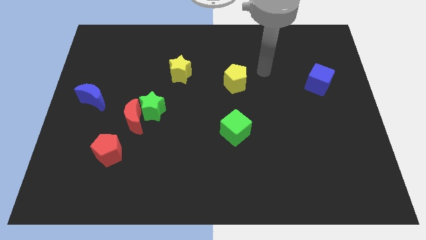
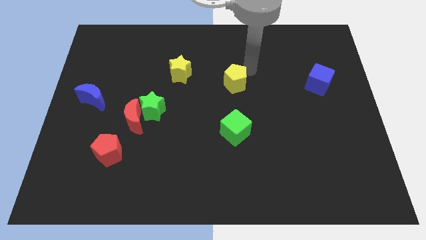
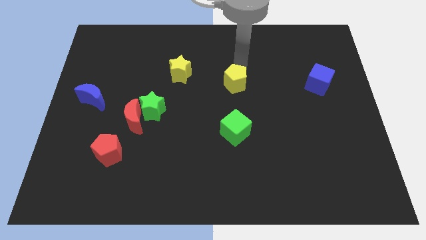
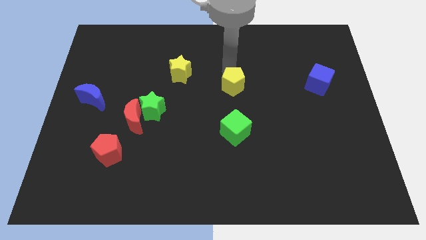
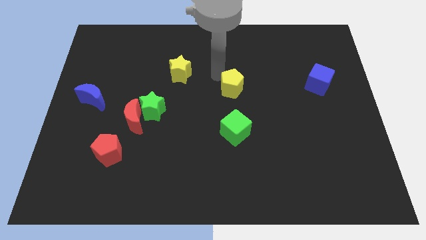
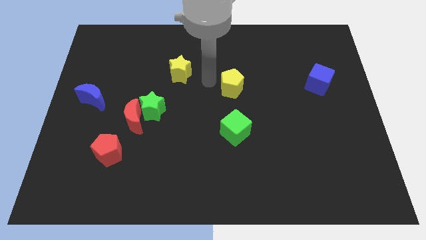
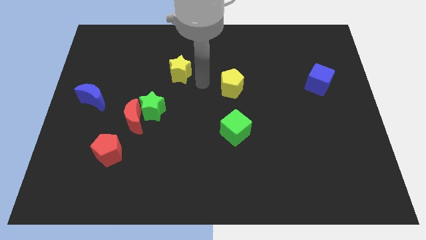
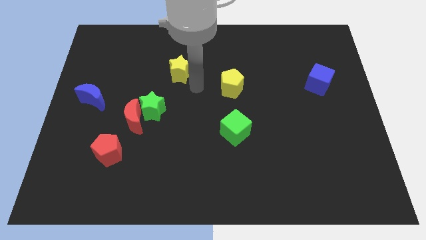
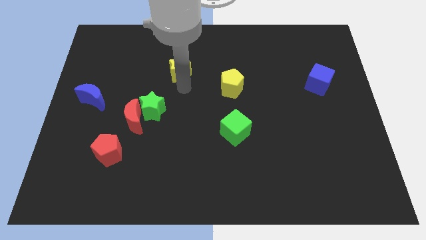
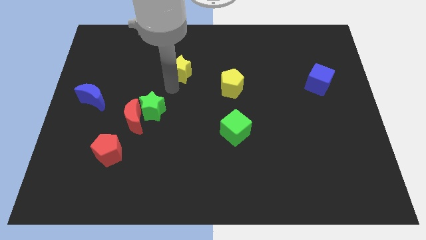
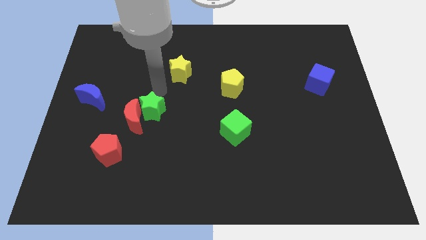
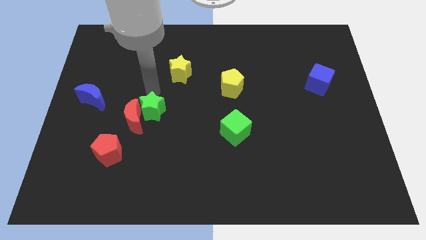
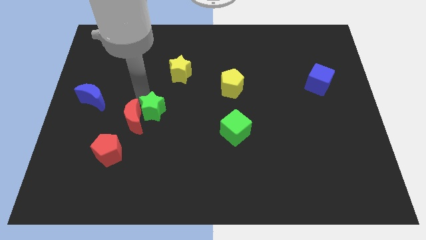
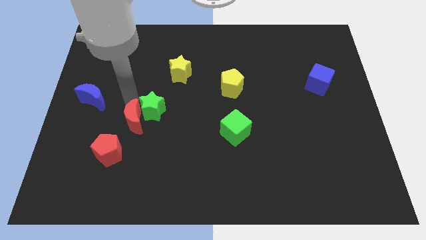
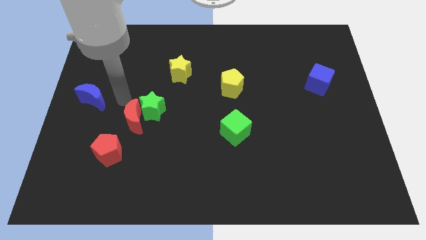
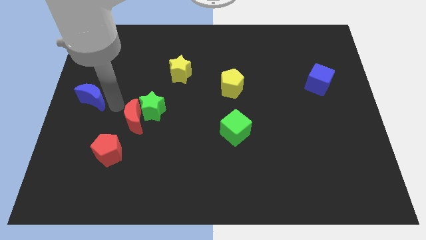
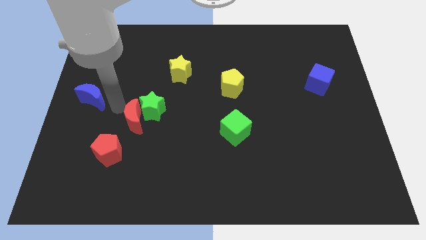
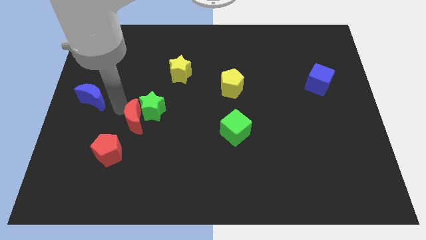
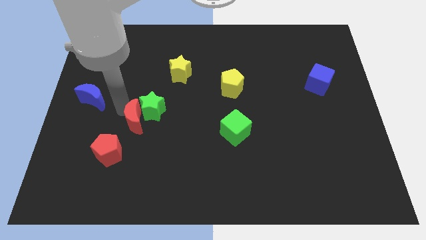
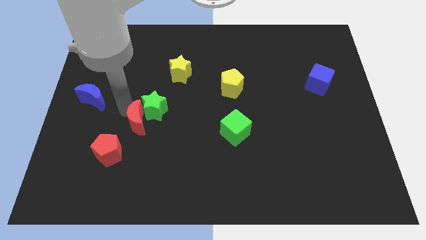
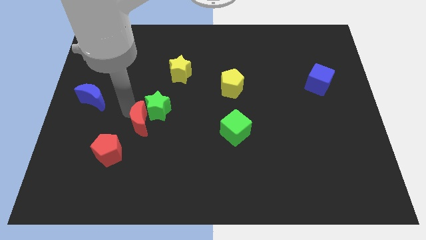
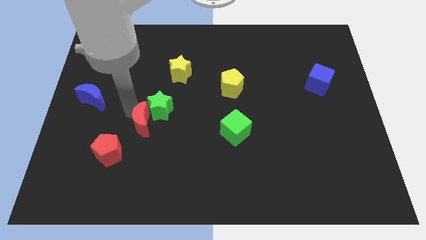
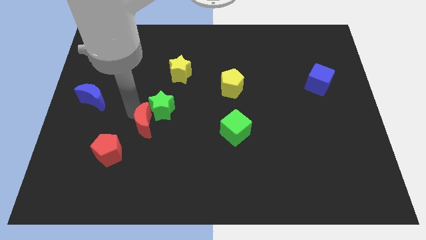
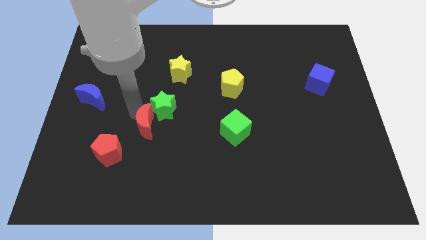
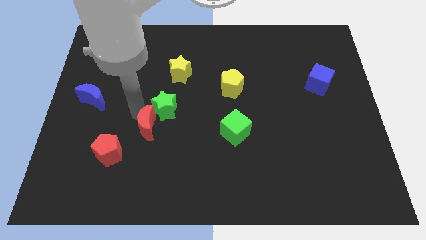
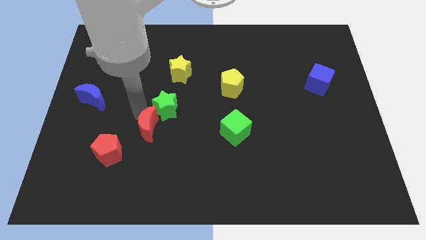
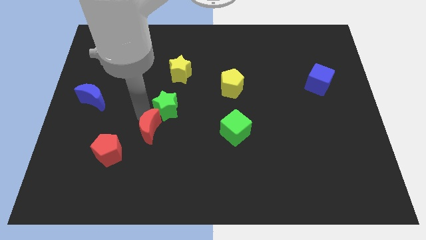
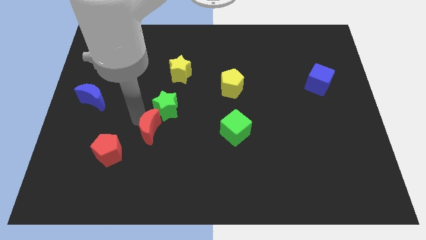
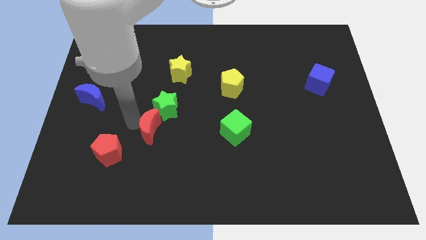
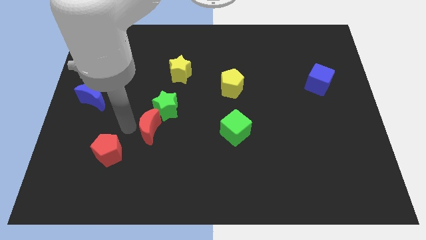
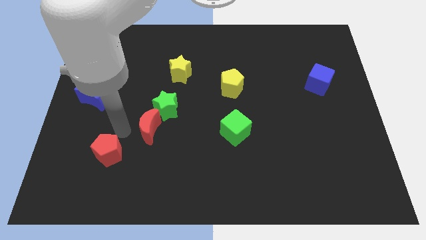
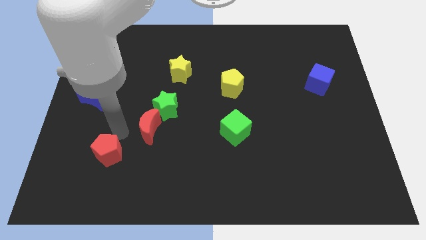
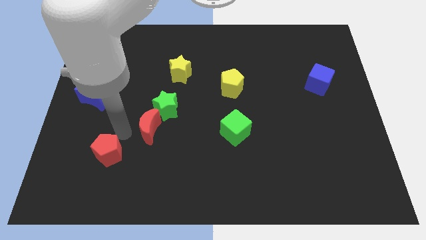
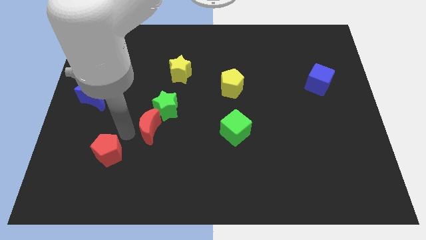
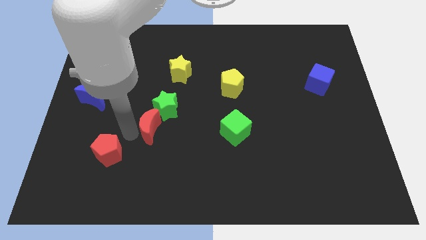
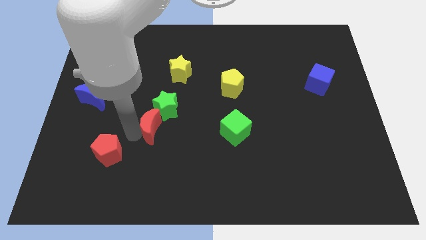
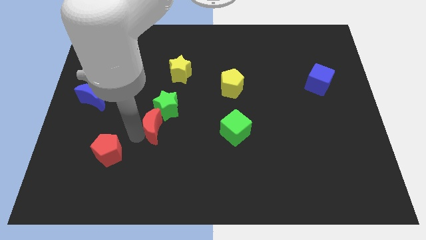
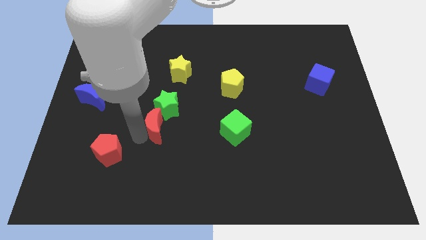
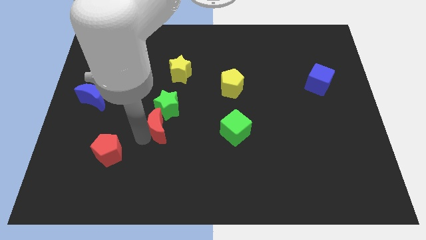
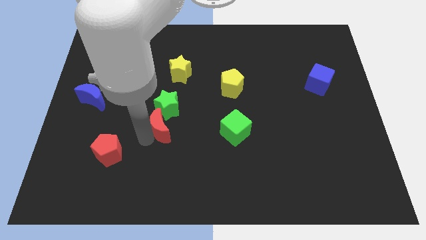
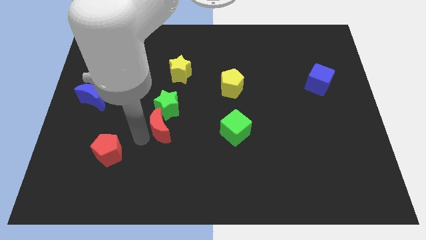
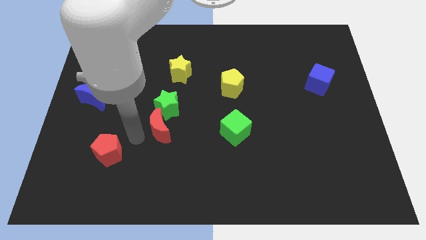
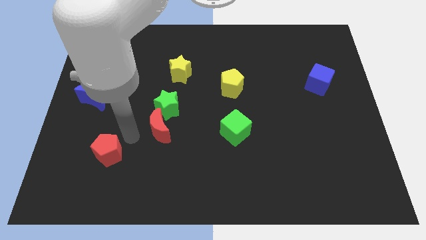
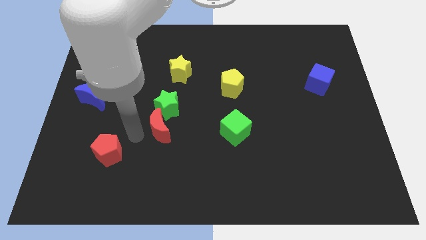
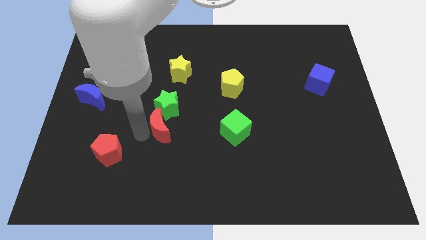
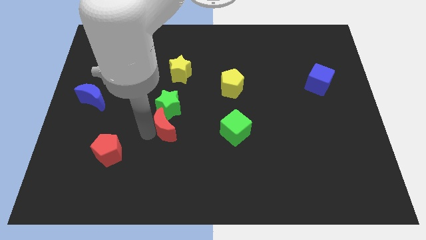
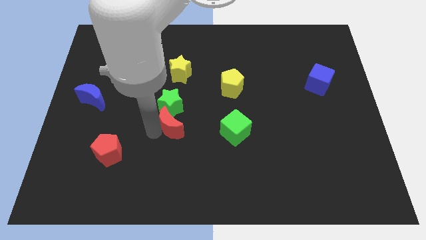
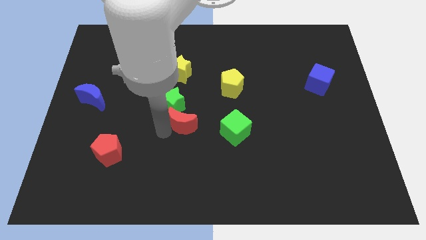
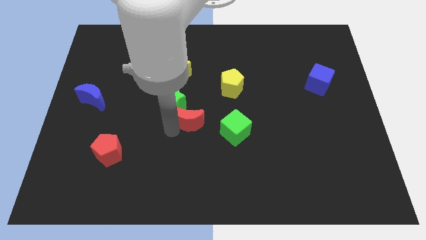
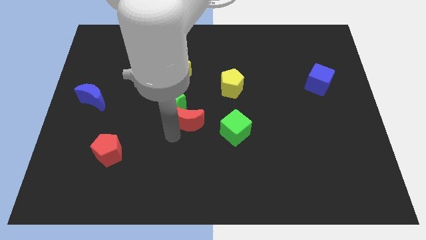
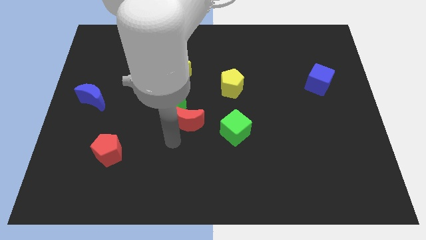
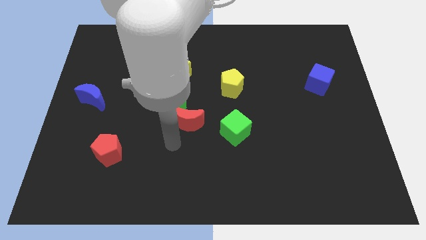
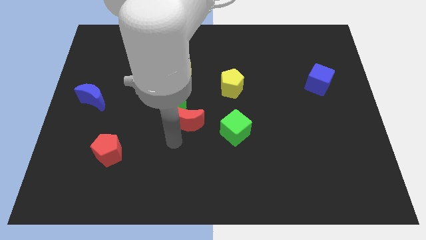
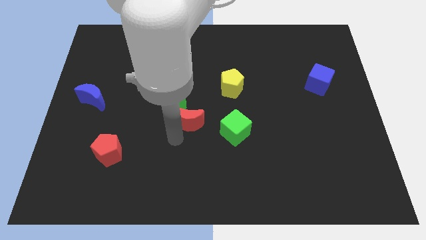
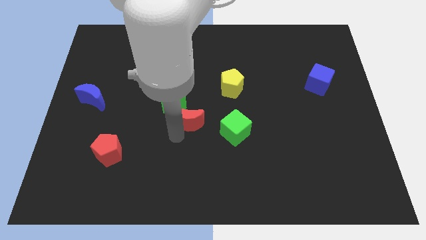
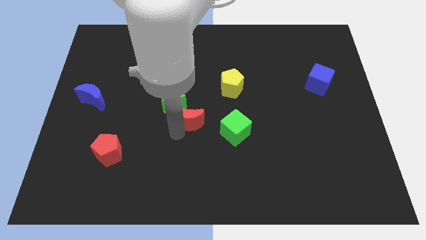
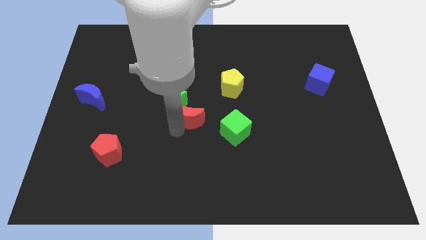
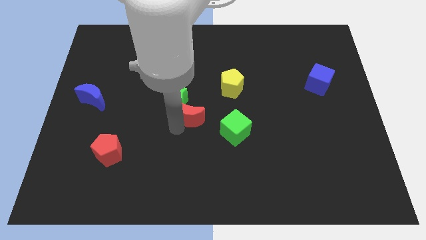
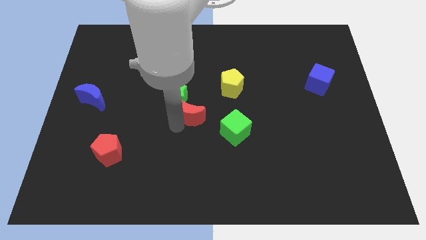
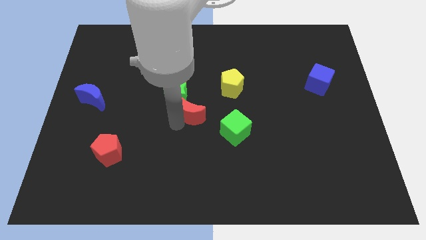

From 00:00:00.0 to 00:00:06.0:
put the red moon to the bottom left of the yellow pentagon

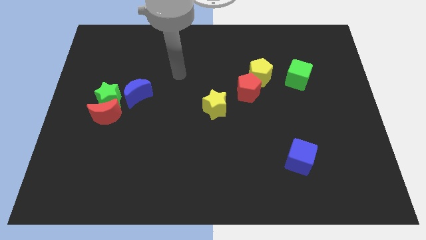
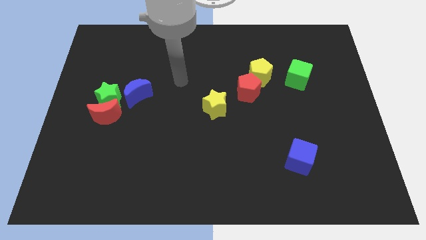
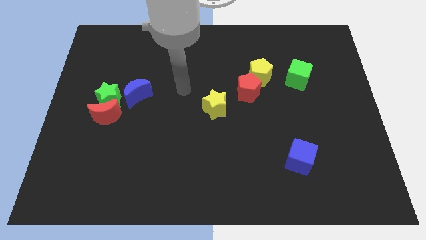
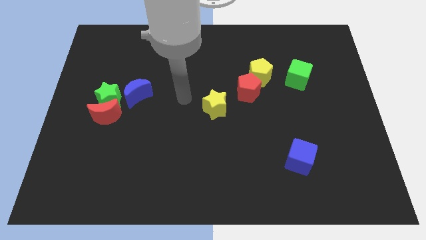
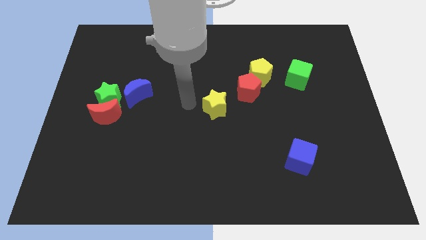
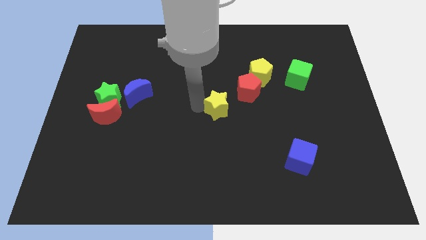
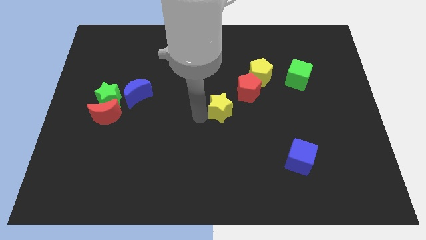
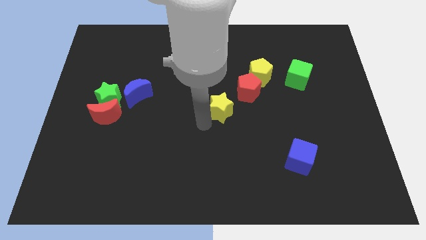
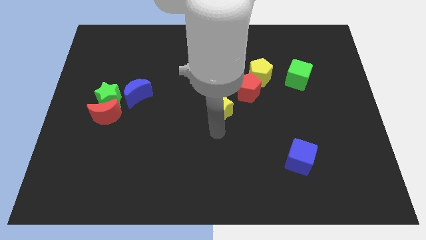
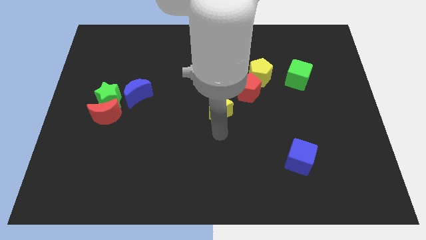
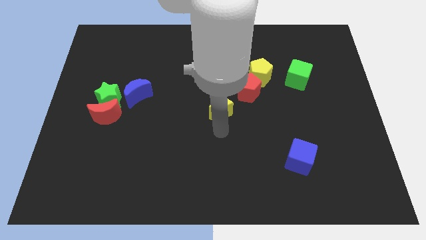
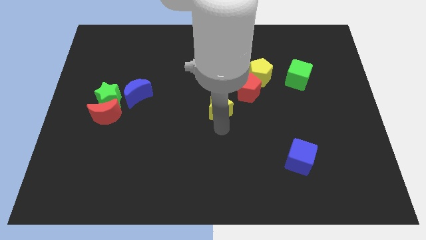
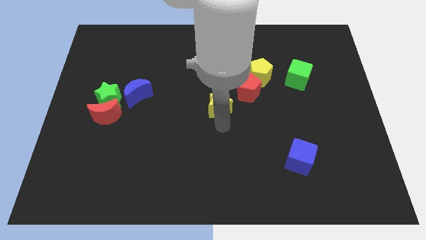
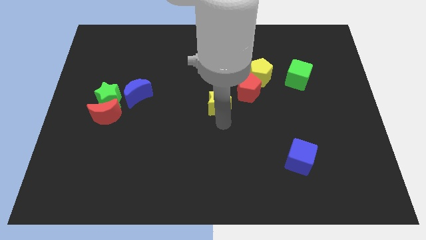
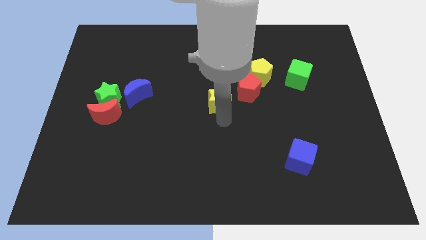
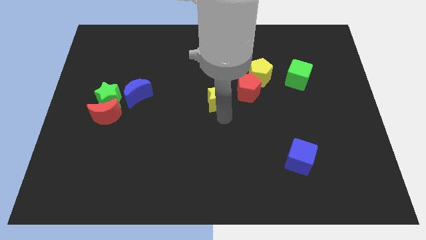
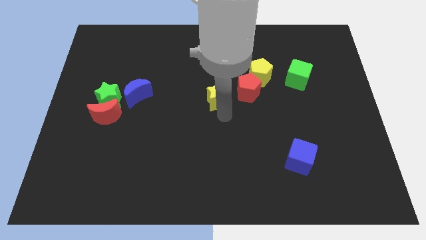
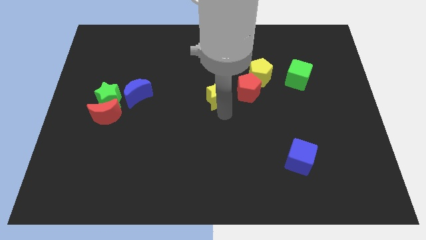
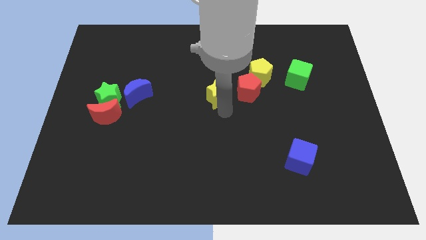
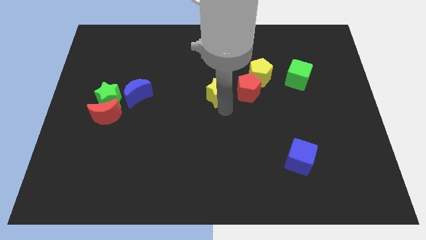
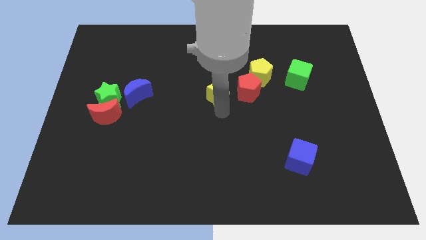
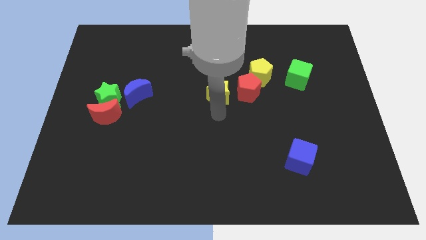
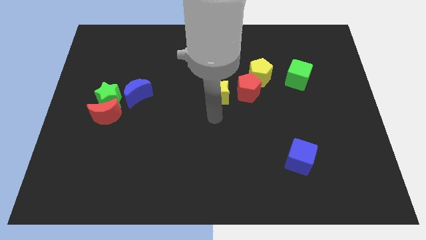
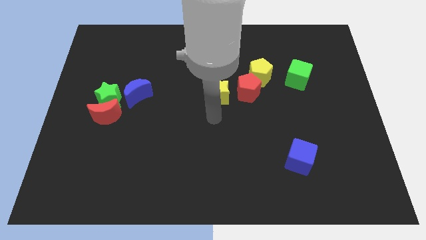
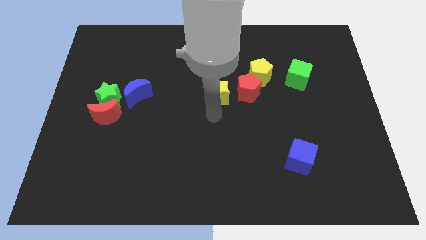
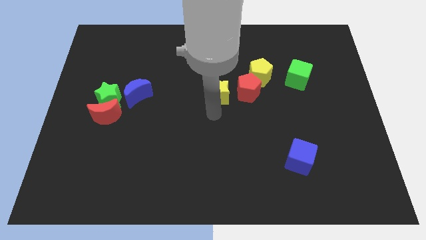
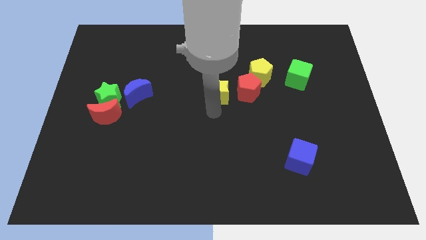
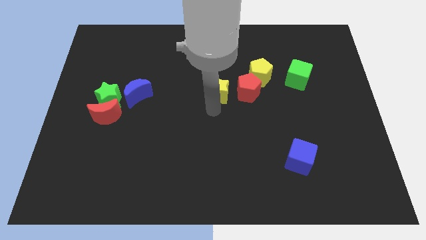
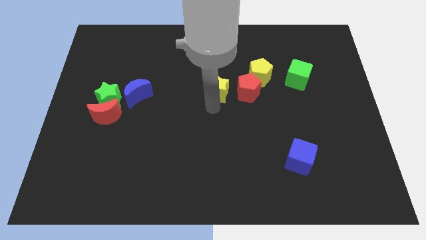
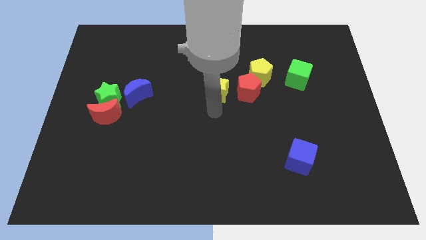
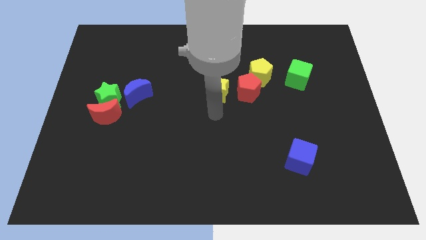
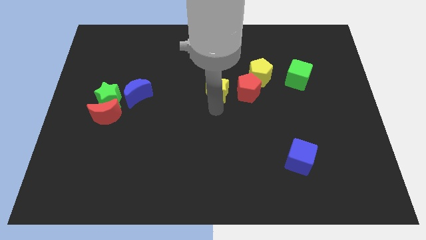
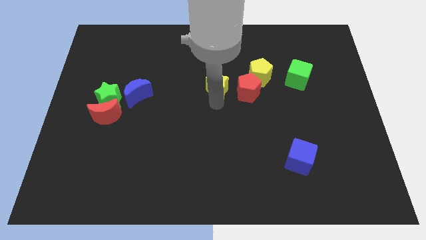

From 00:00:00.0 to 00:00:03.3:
push the yellow star to the left side of the yellow pentagon
